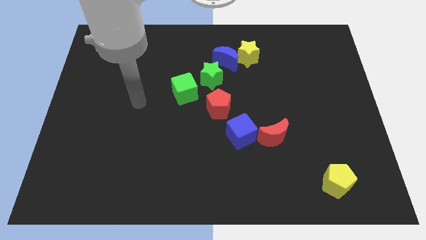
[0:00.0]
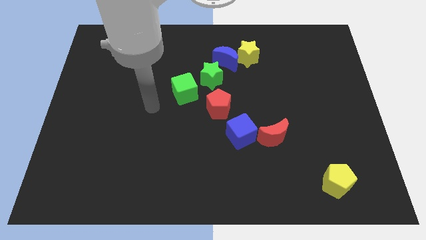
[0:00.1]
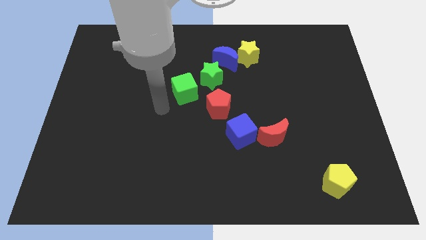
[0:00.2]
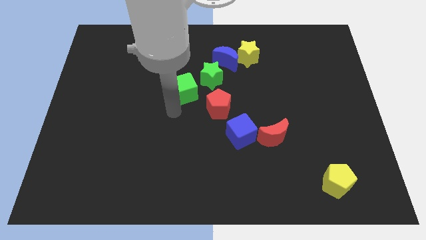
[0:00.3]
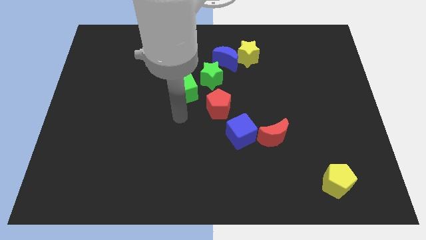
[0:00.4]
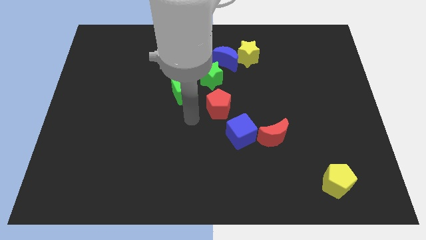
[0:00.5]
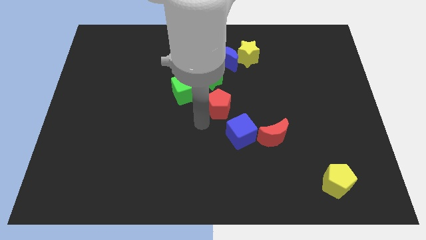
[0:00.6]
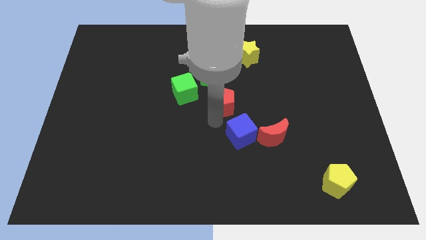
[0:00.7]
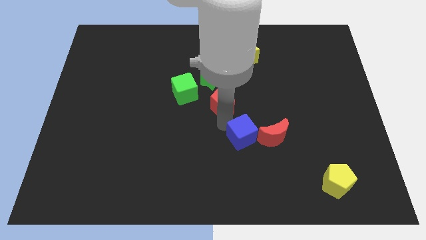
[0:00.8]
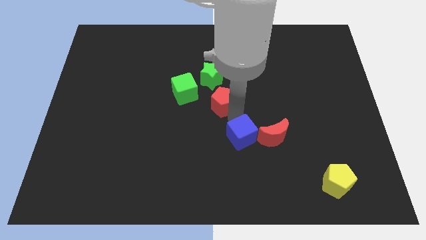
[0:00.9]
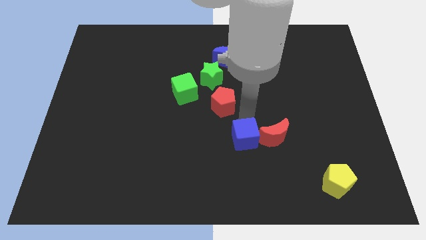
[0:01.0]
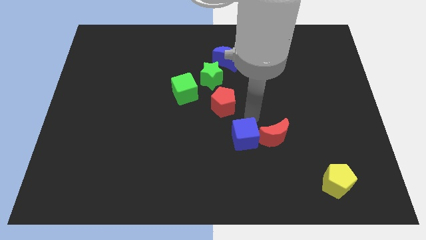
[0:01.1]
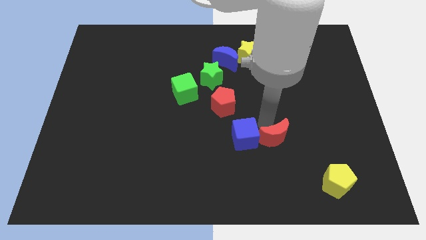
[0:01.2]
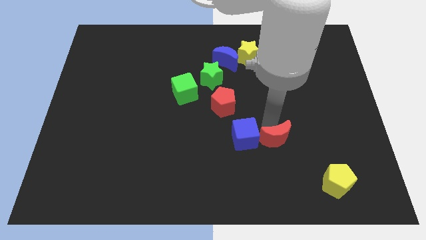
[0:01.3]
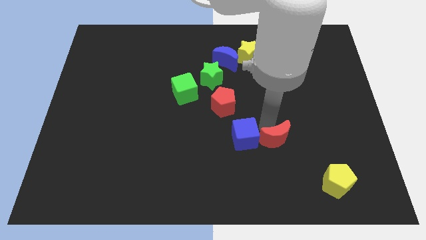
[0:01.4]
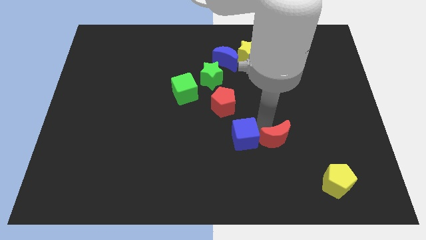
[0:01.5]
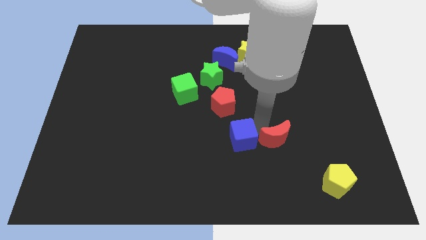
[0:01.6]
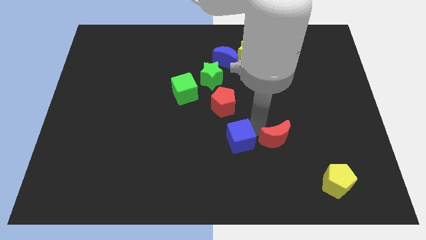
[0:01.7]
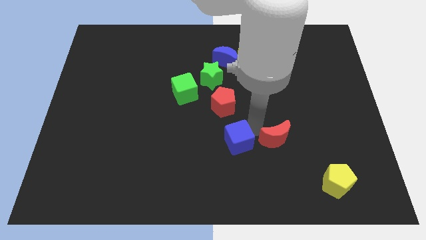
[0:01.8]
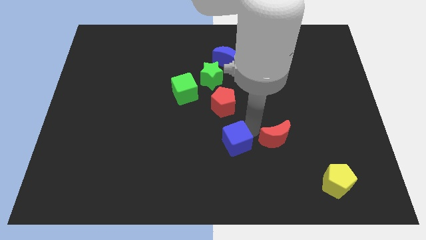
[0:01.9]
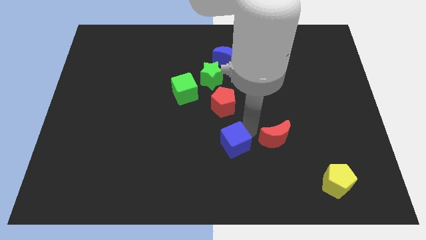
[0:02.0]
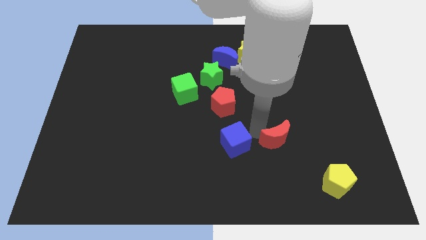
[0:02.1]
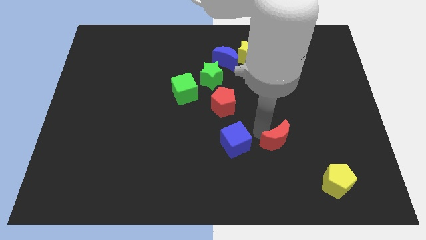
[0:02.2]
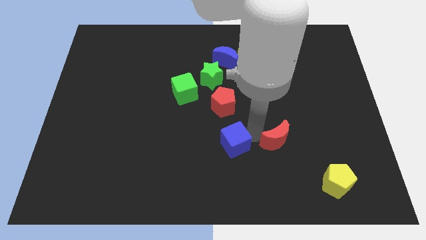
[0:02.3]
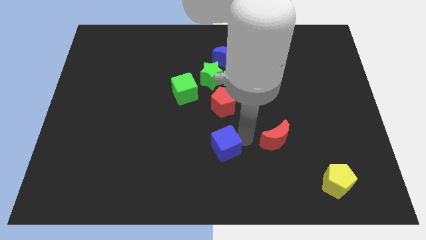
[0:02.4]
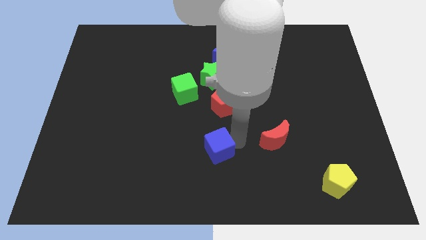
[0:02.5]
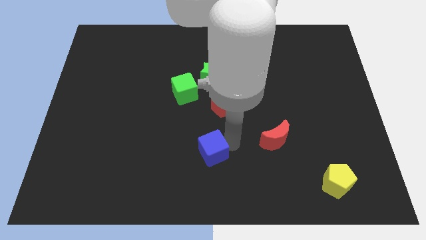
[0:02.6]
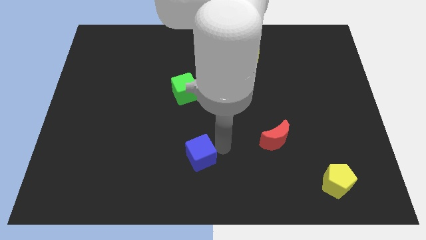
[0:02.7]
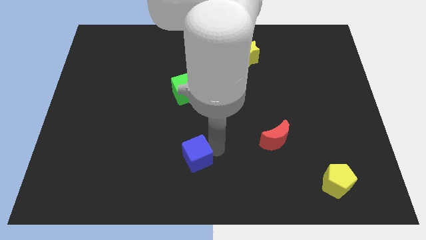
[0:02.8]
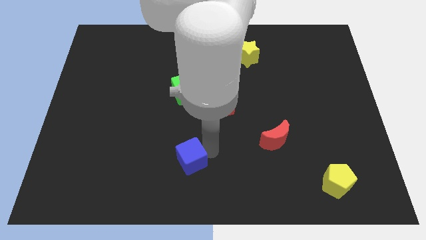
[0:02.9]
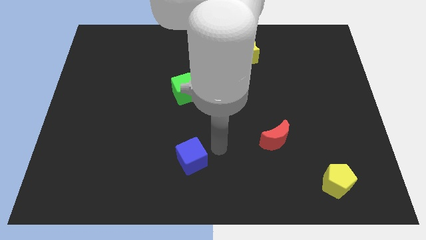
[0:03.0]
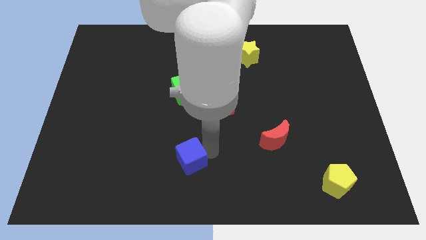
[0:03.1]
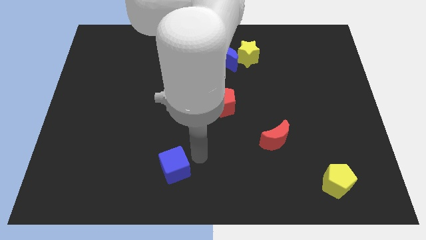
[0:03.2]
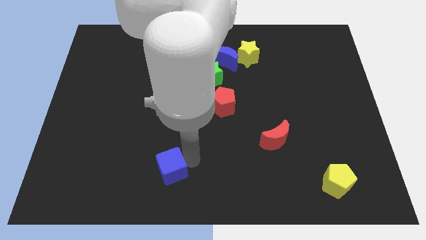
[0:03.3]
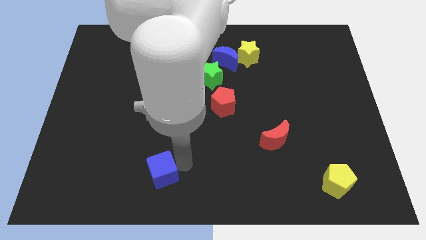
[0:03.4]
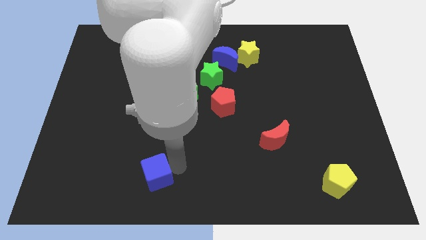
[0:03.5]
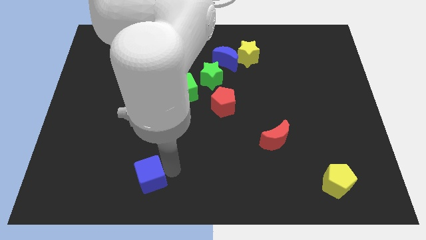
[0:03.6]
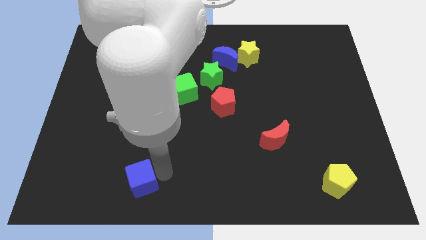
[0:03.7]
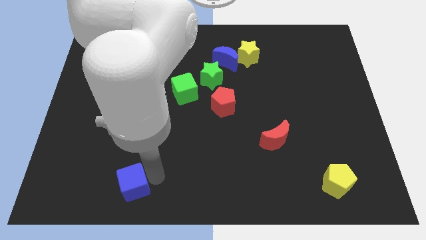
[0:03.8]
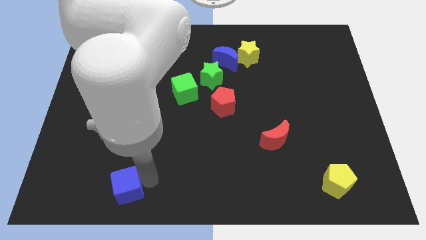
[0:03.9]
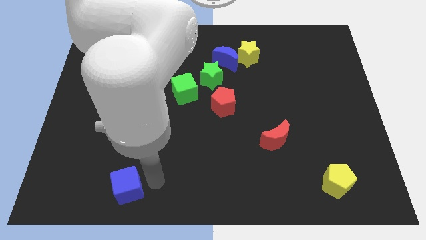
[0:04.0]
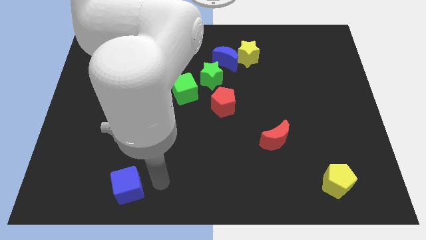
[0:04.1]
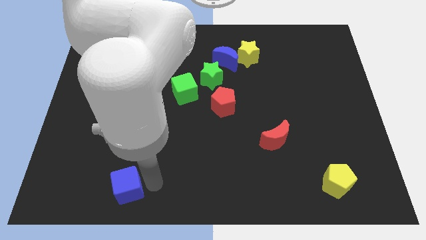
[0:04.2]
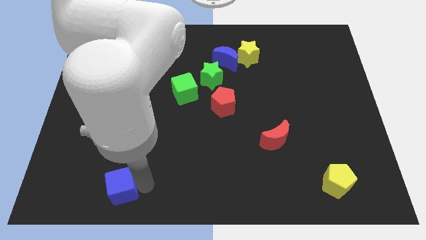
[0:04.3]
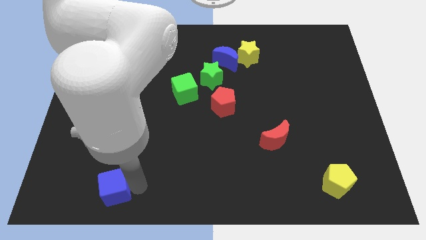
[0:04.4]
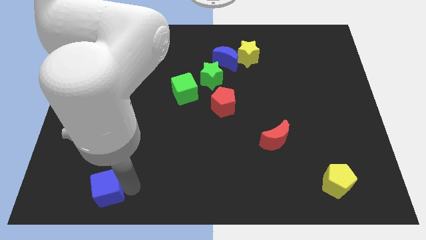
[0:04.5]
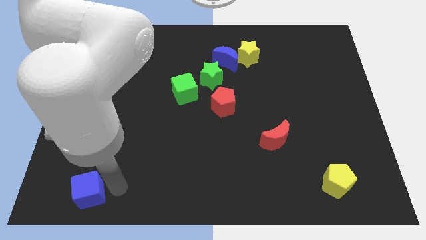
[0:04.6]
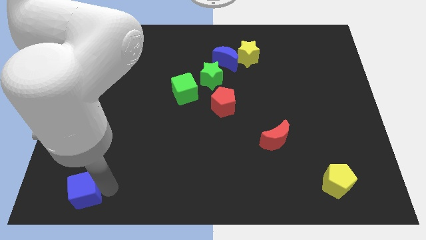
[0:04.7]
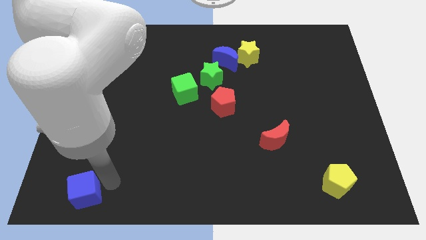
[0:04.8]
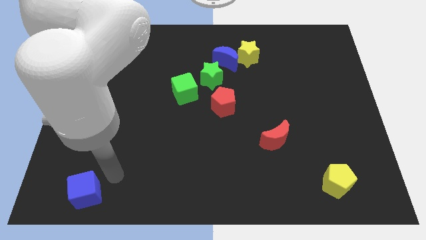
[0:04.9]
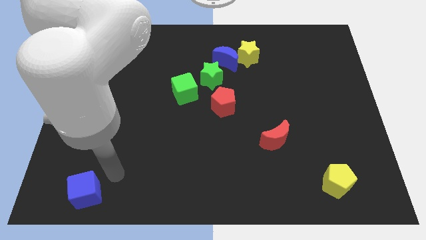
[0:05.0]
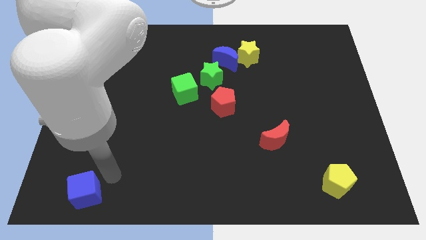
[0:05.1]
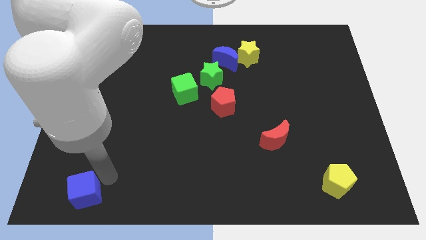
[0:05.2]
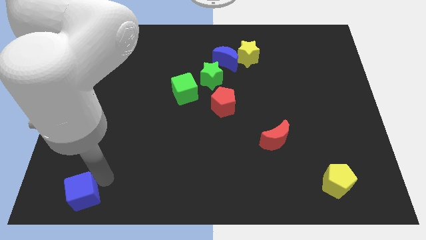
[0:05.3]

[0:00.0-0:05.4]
slide the blue cube to the bottom left corner

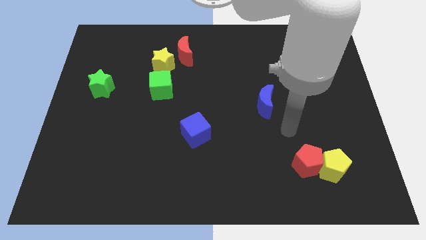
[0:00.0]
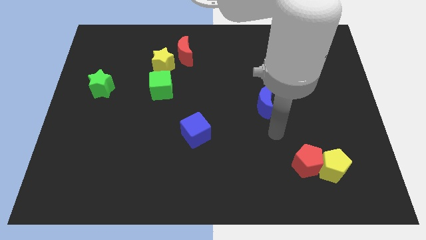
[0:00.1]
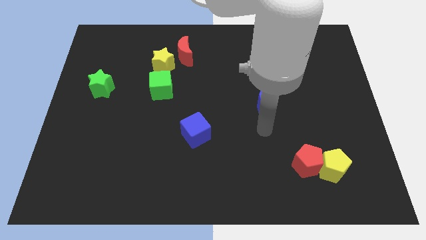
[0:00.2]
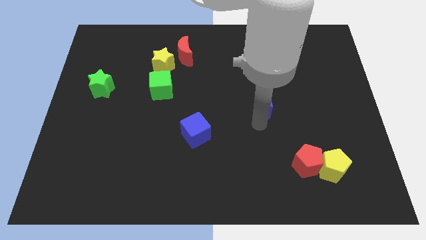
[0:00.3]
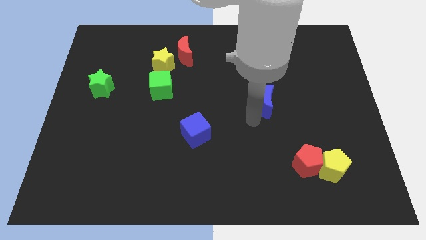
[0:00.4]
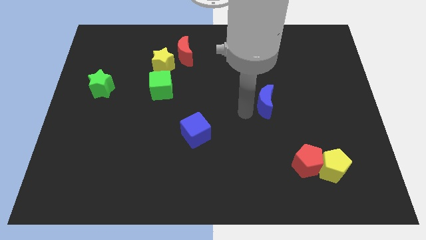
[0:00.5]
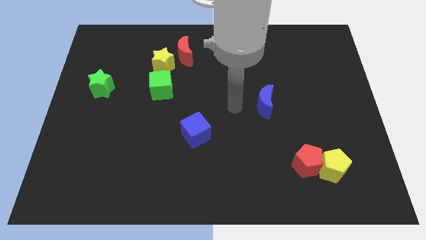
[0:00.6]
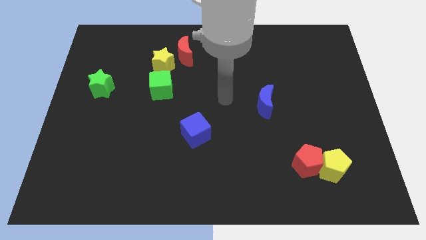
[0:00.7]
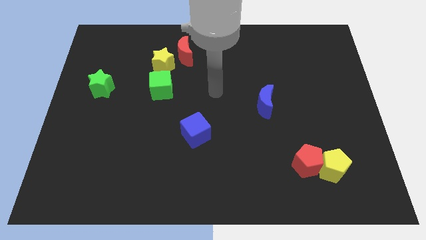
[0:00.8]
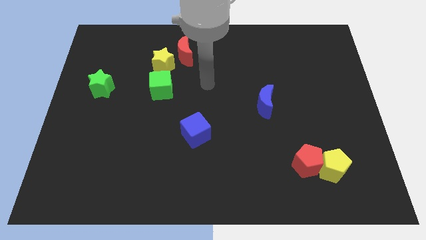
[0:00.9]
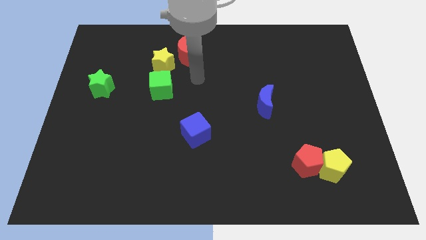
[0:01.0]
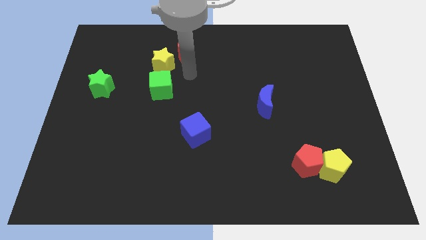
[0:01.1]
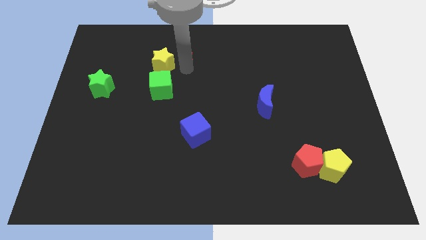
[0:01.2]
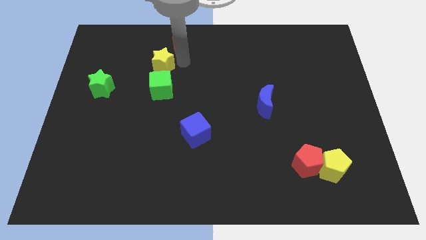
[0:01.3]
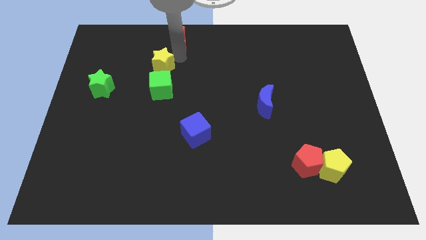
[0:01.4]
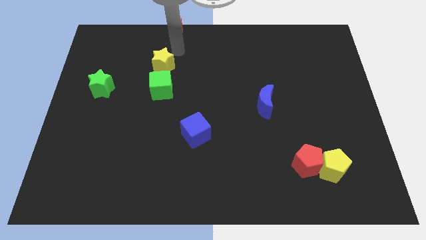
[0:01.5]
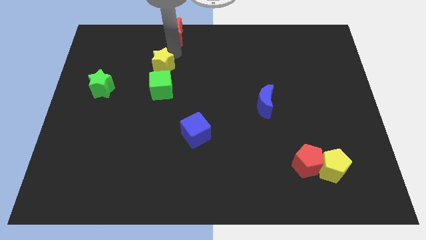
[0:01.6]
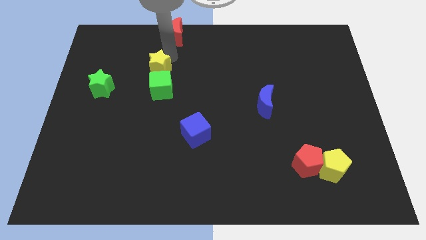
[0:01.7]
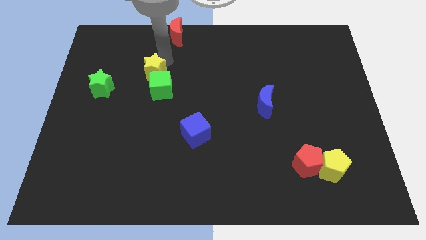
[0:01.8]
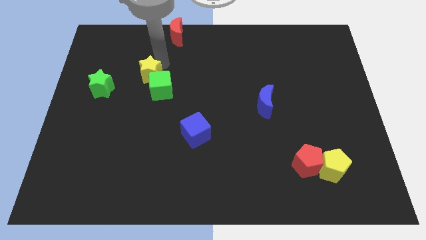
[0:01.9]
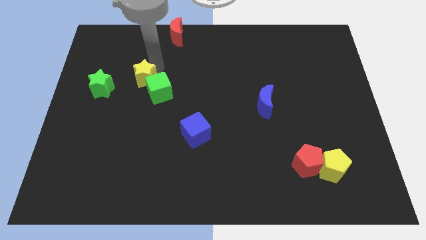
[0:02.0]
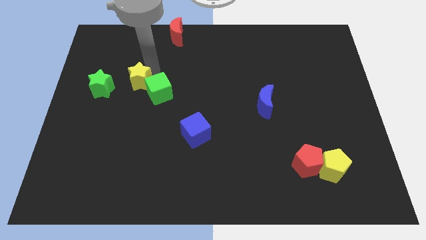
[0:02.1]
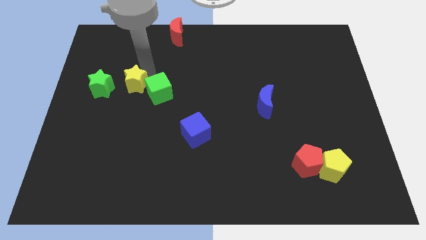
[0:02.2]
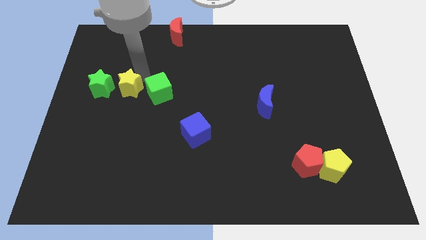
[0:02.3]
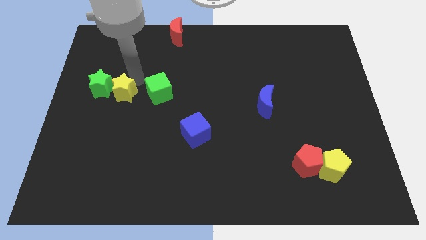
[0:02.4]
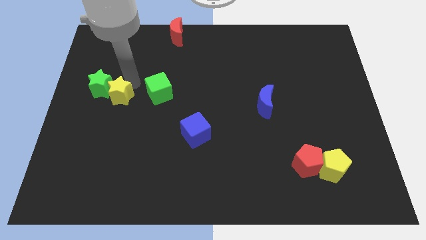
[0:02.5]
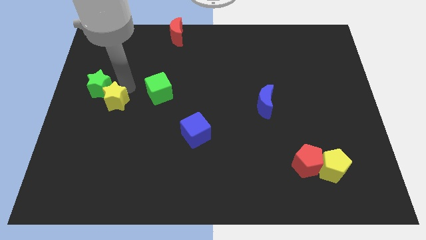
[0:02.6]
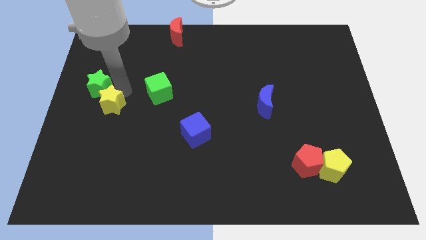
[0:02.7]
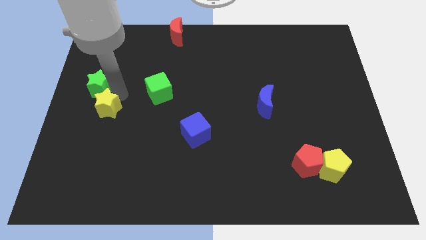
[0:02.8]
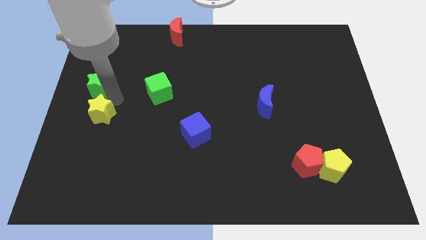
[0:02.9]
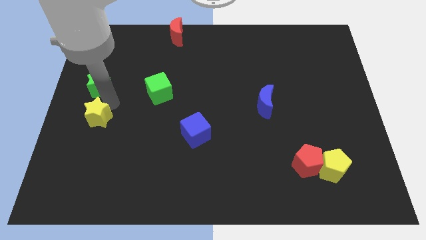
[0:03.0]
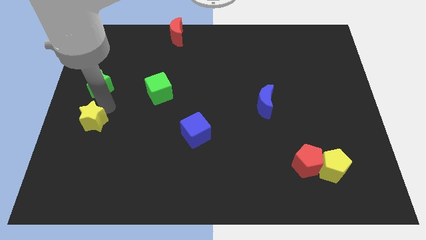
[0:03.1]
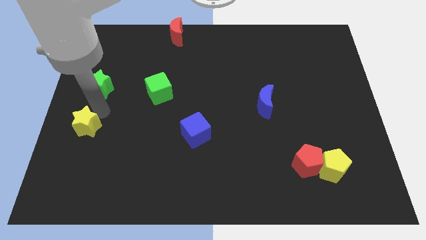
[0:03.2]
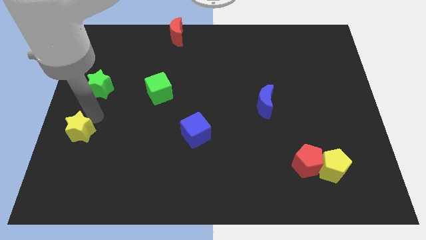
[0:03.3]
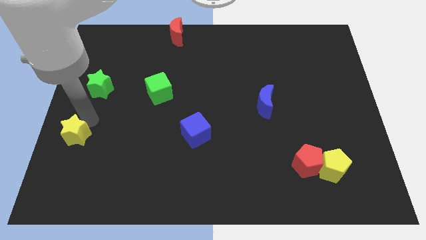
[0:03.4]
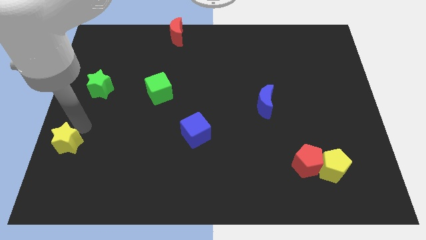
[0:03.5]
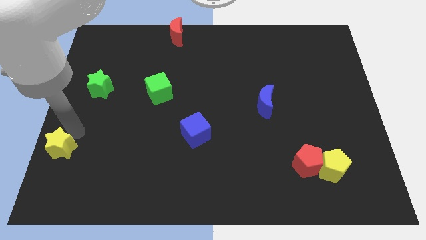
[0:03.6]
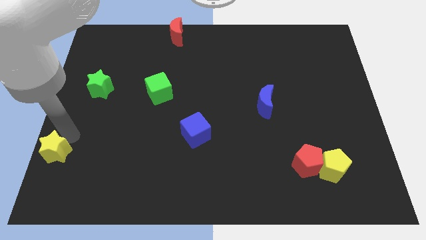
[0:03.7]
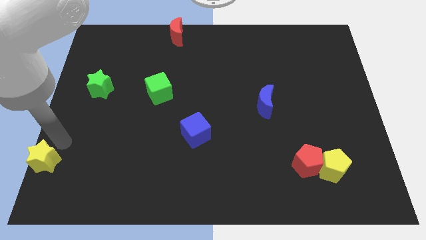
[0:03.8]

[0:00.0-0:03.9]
push the yellow star to the bottom left
